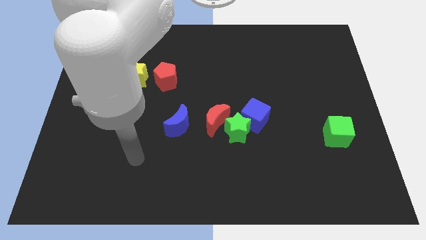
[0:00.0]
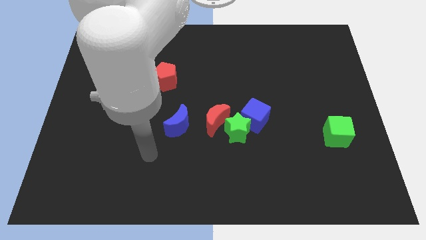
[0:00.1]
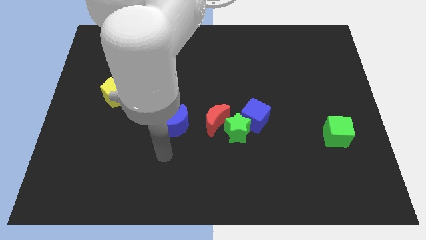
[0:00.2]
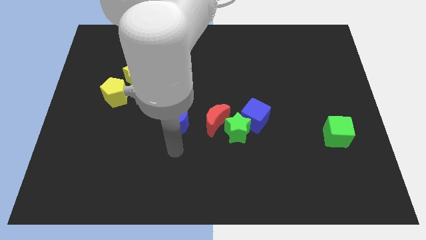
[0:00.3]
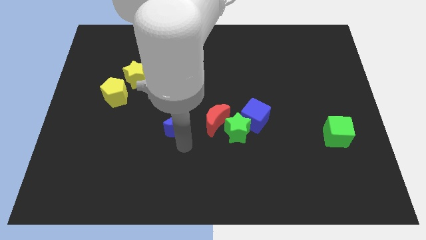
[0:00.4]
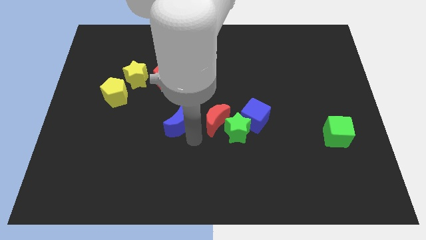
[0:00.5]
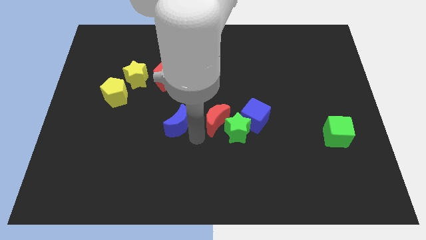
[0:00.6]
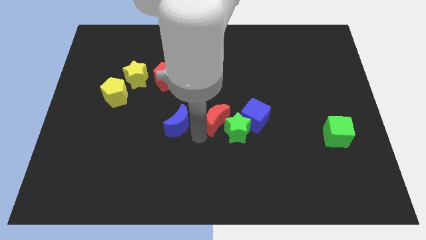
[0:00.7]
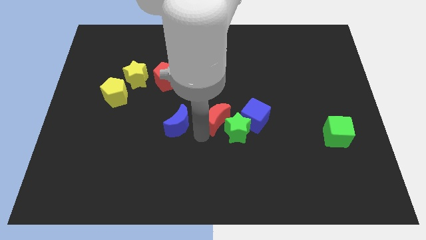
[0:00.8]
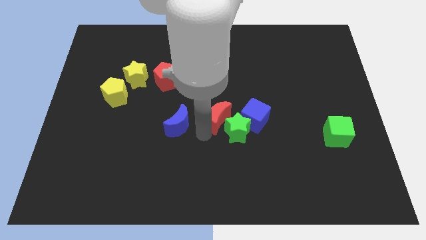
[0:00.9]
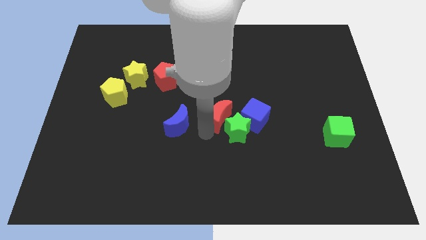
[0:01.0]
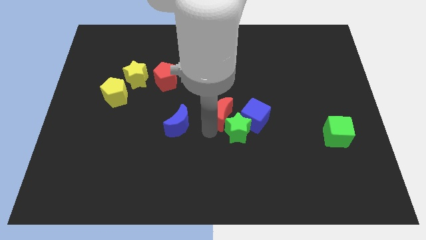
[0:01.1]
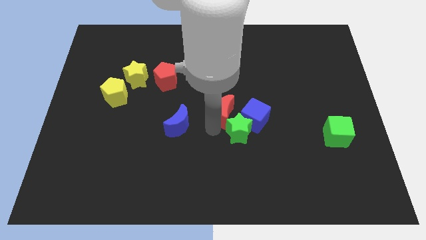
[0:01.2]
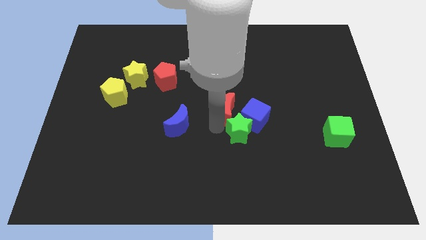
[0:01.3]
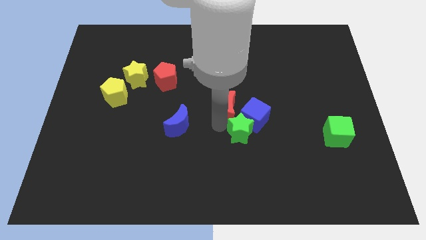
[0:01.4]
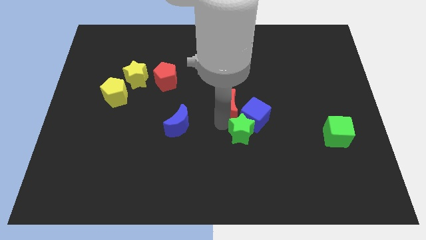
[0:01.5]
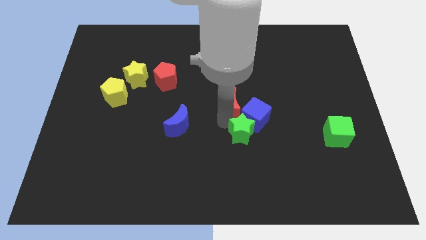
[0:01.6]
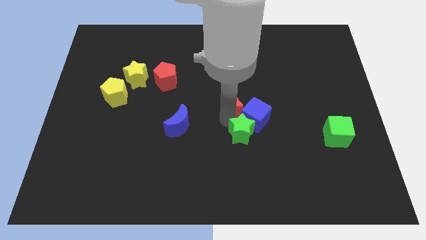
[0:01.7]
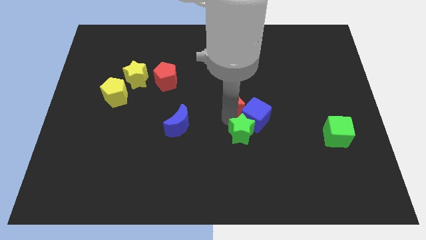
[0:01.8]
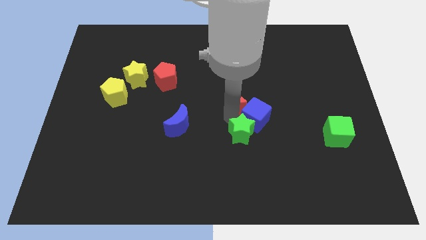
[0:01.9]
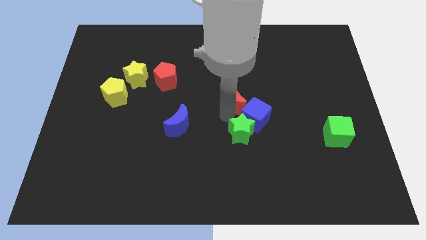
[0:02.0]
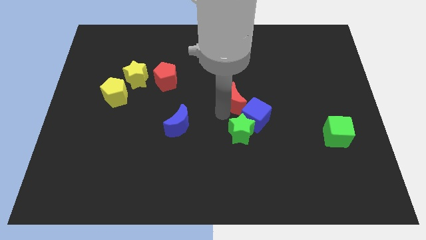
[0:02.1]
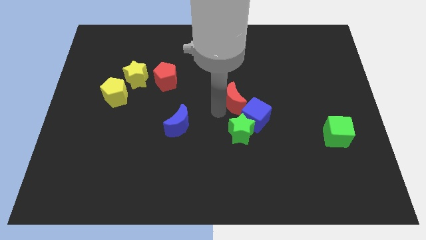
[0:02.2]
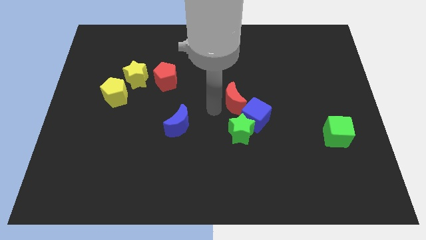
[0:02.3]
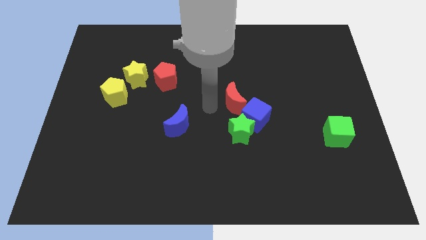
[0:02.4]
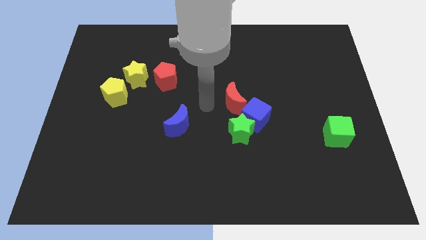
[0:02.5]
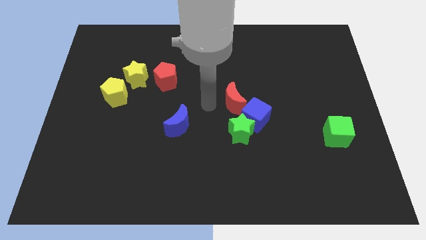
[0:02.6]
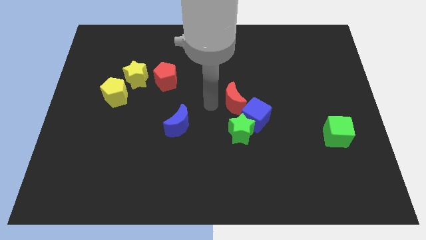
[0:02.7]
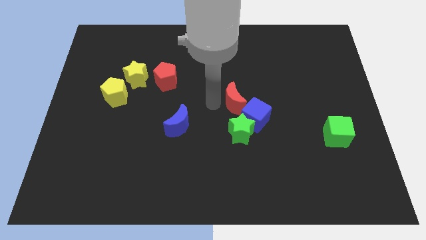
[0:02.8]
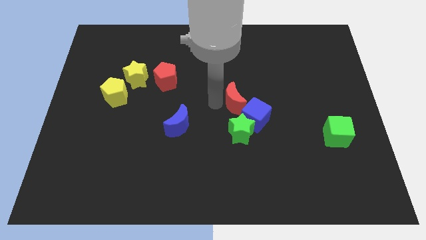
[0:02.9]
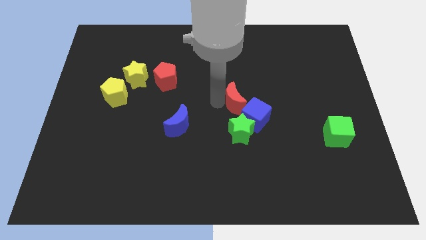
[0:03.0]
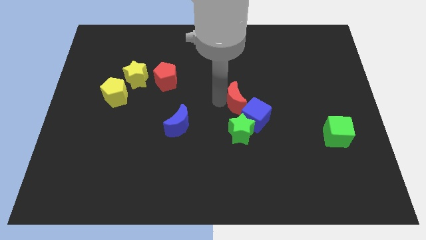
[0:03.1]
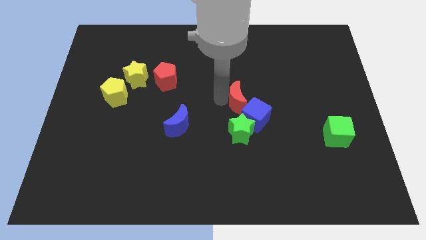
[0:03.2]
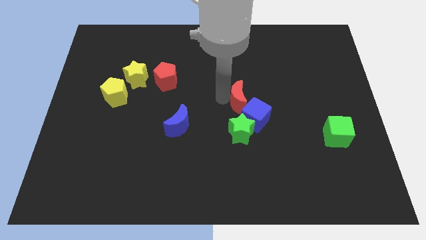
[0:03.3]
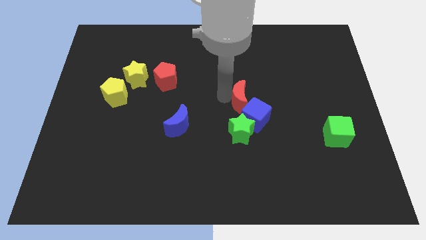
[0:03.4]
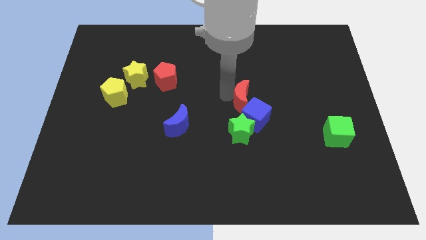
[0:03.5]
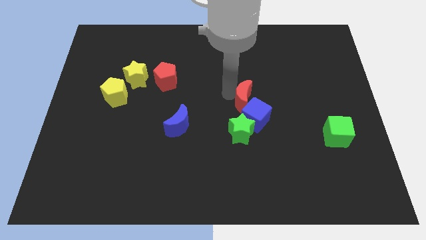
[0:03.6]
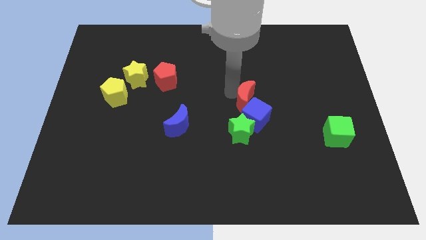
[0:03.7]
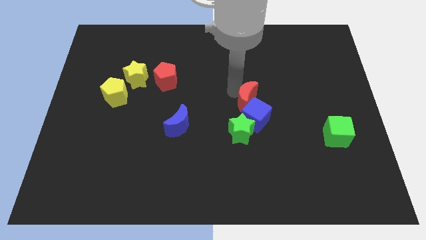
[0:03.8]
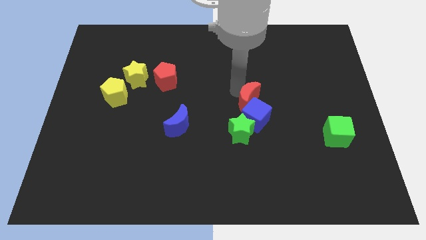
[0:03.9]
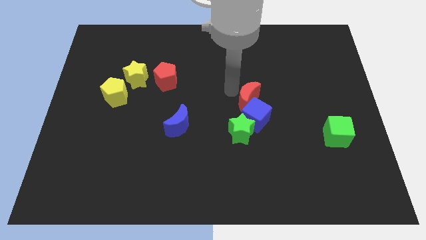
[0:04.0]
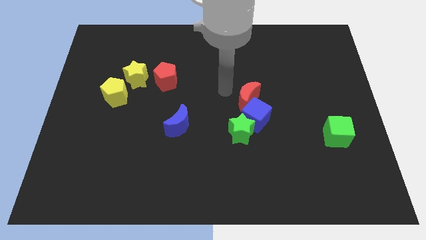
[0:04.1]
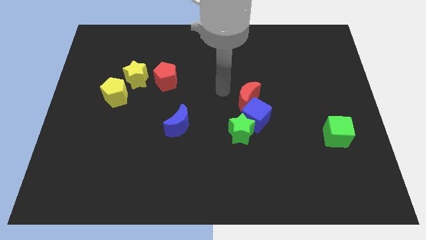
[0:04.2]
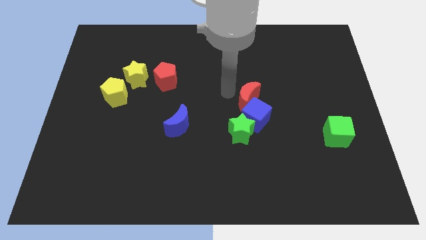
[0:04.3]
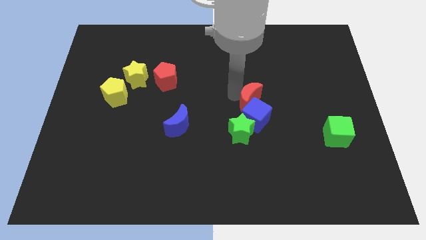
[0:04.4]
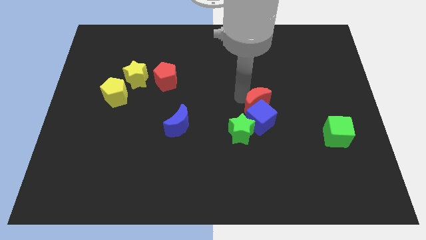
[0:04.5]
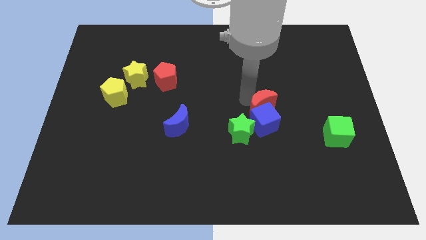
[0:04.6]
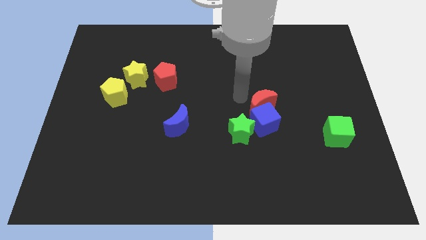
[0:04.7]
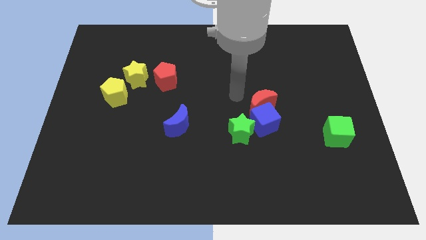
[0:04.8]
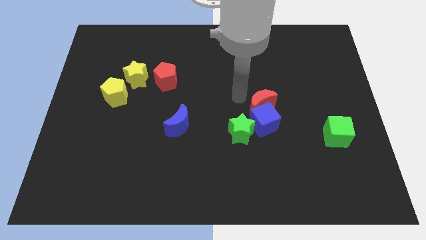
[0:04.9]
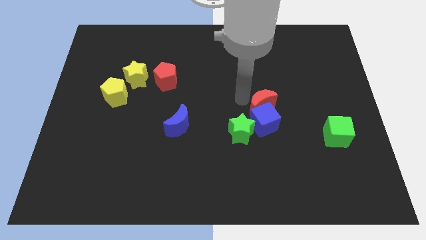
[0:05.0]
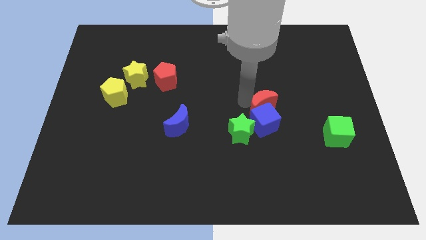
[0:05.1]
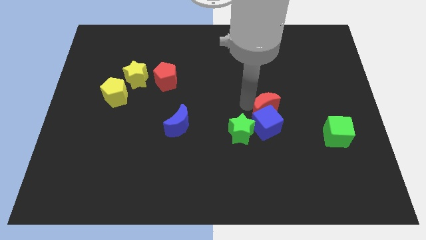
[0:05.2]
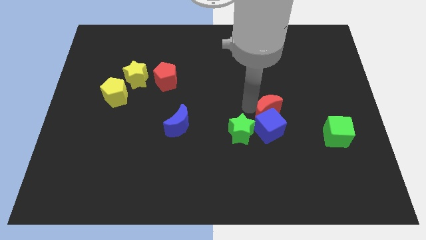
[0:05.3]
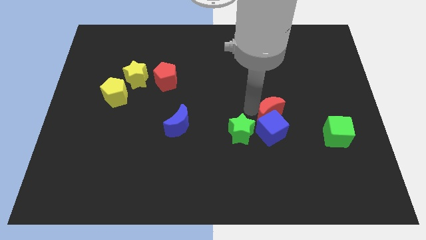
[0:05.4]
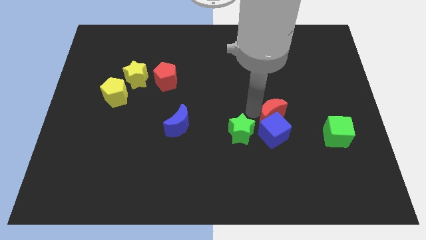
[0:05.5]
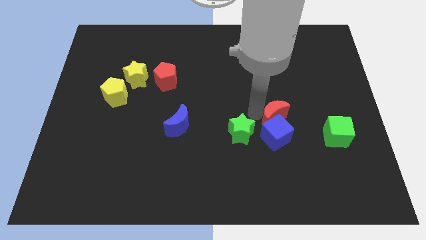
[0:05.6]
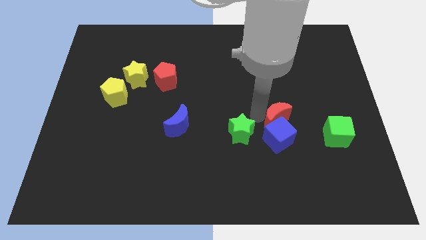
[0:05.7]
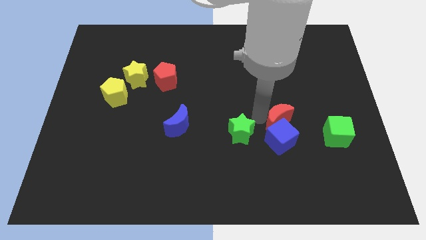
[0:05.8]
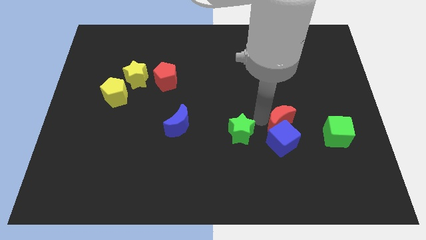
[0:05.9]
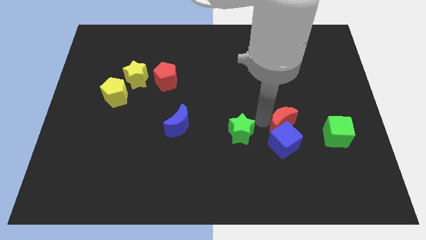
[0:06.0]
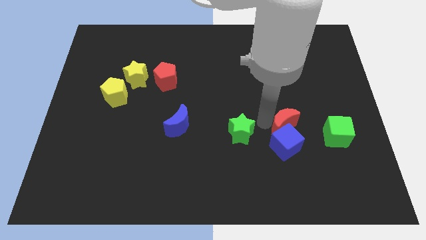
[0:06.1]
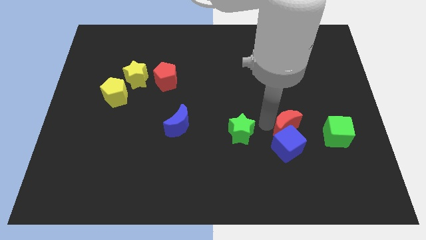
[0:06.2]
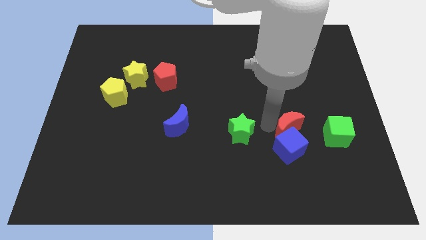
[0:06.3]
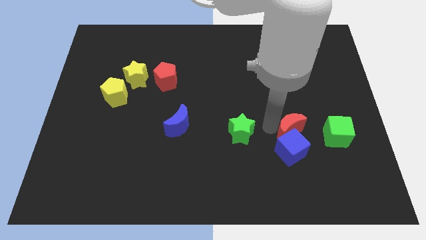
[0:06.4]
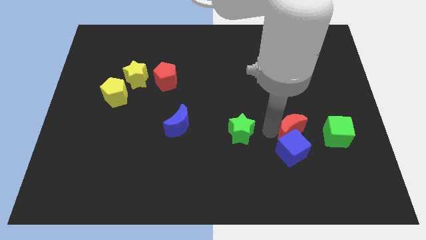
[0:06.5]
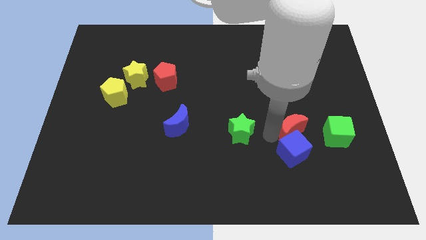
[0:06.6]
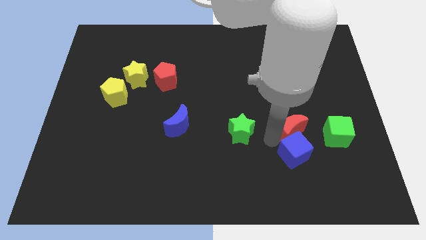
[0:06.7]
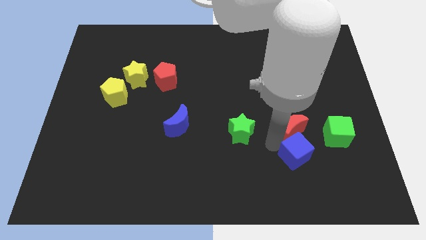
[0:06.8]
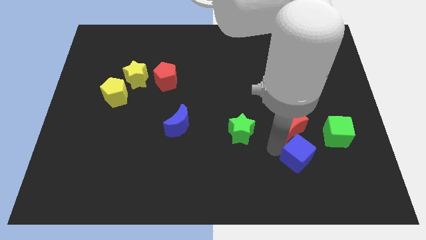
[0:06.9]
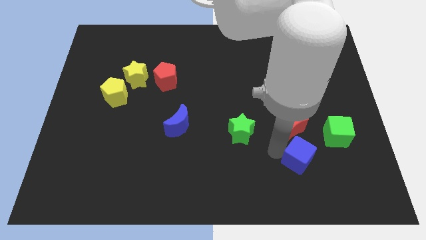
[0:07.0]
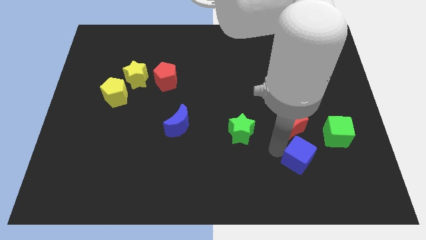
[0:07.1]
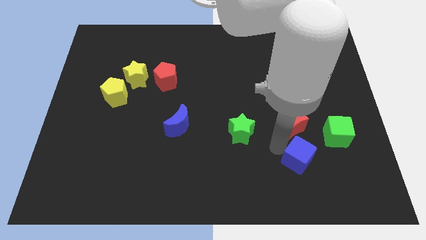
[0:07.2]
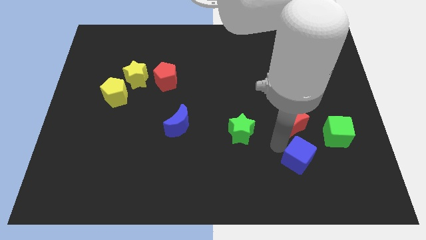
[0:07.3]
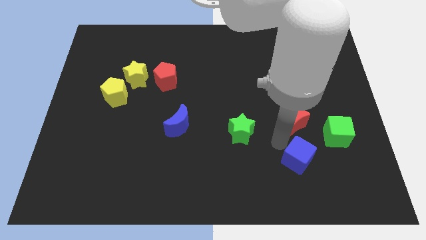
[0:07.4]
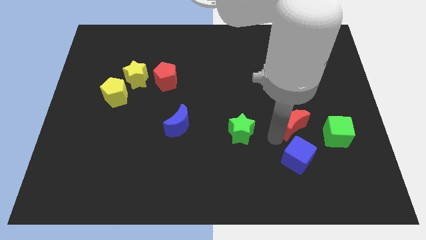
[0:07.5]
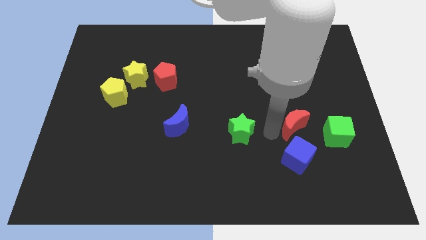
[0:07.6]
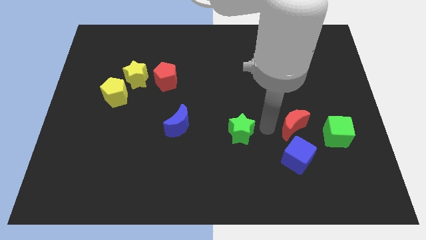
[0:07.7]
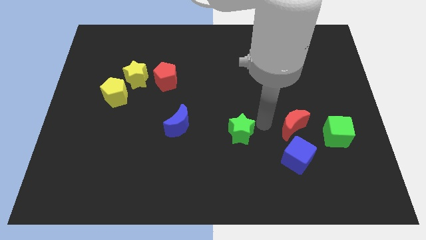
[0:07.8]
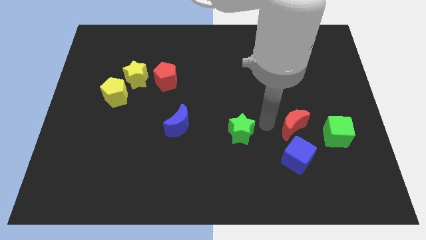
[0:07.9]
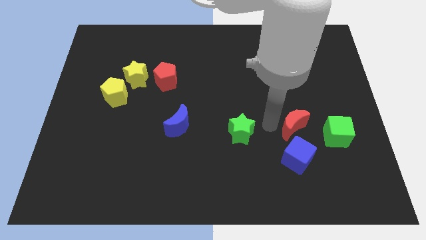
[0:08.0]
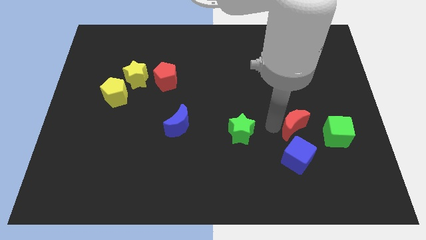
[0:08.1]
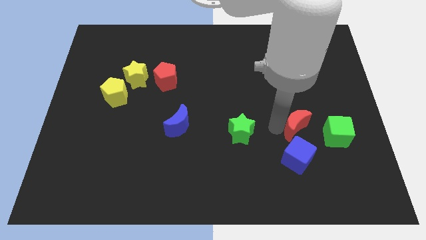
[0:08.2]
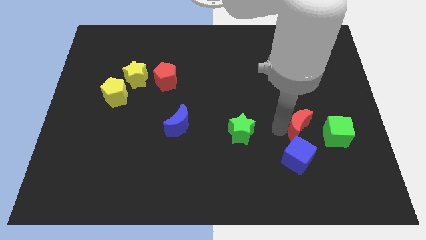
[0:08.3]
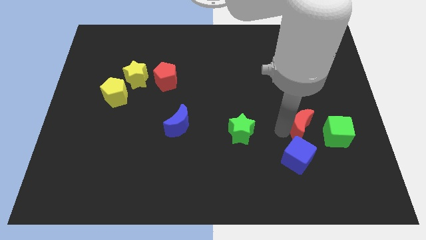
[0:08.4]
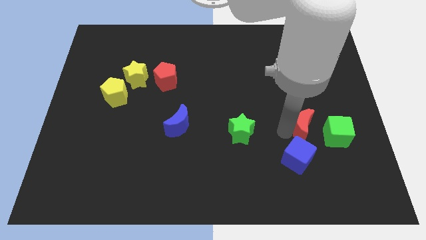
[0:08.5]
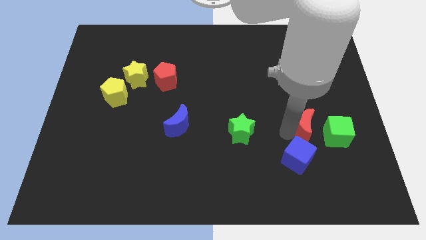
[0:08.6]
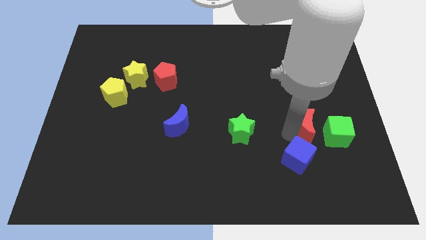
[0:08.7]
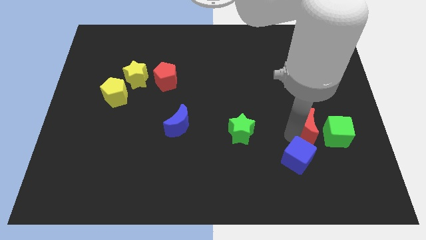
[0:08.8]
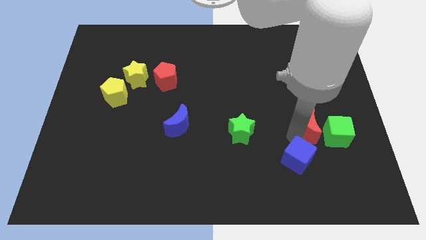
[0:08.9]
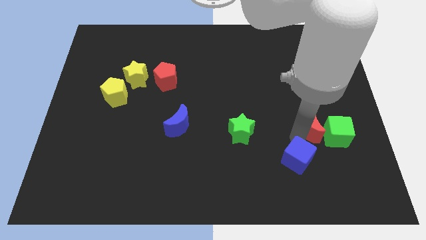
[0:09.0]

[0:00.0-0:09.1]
push the red moon close to the green cube
